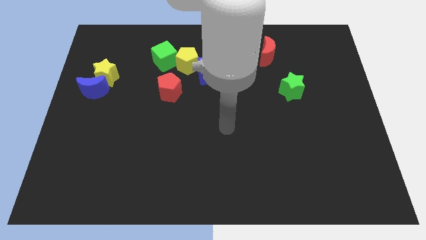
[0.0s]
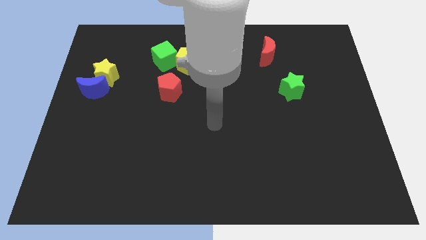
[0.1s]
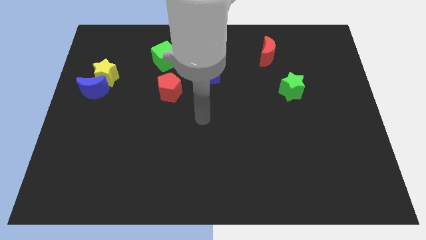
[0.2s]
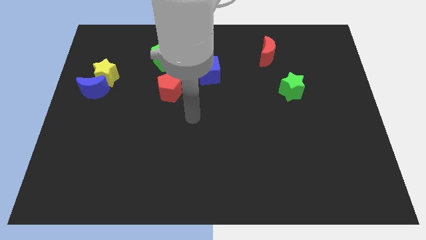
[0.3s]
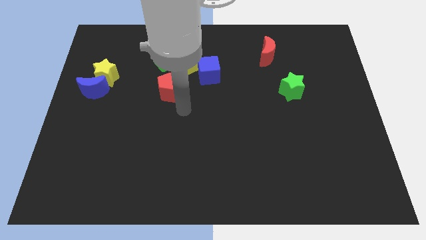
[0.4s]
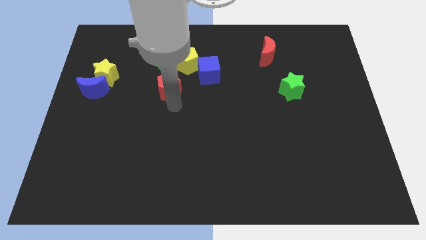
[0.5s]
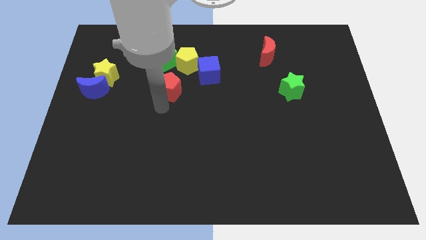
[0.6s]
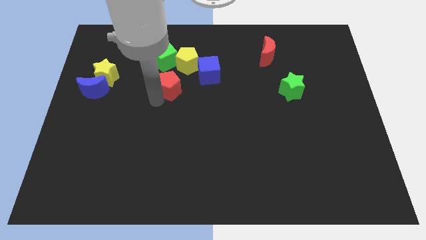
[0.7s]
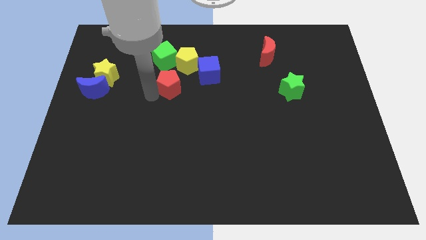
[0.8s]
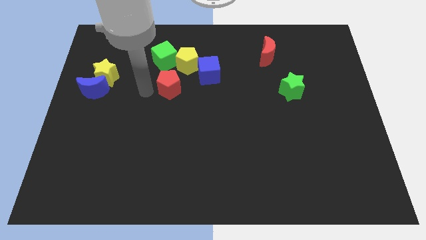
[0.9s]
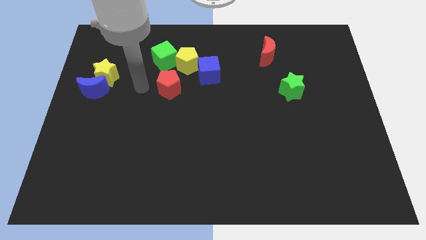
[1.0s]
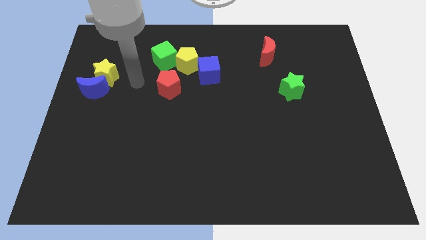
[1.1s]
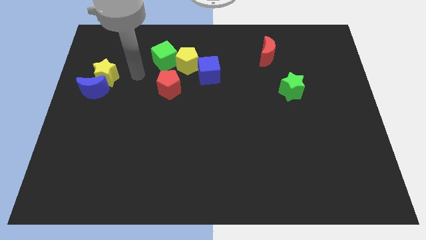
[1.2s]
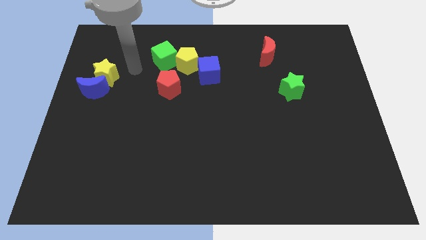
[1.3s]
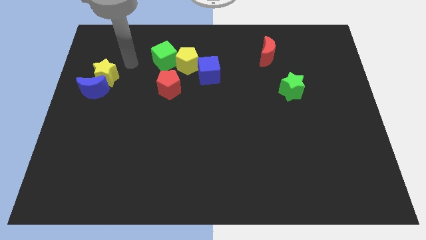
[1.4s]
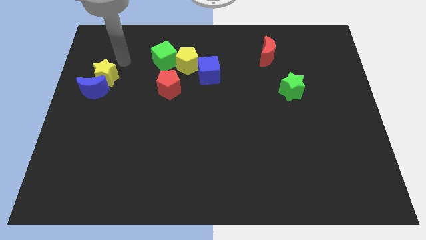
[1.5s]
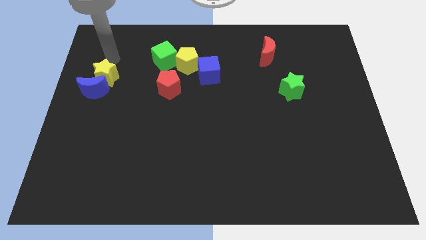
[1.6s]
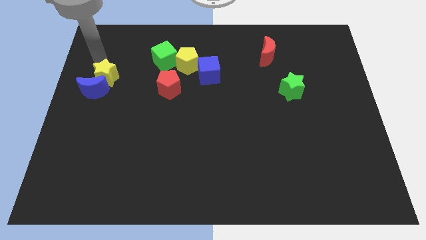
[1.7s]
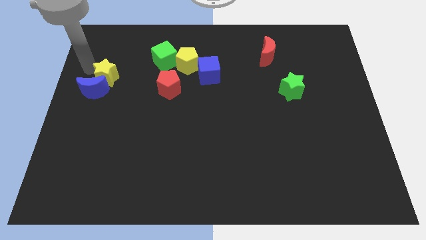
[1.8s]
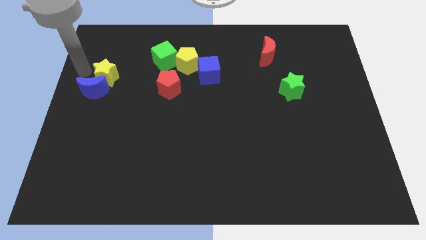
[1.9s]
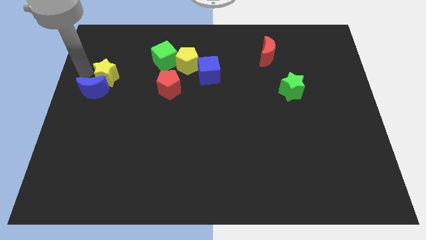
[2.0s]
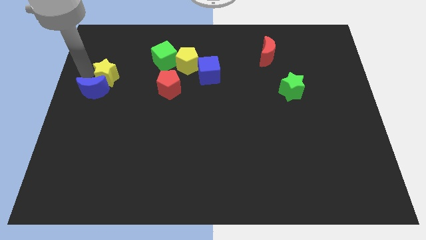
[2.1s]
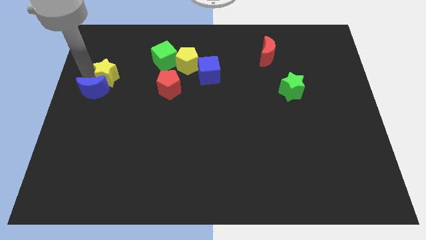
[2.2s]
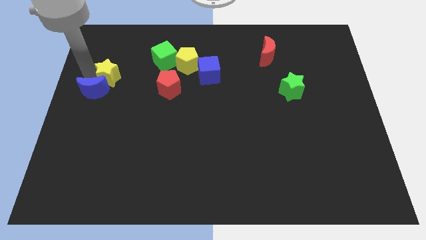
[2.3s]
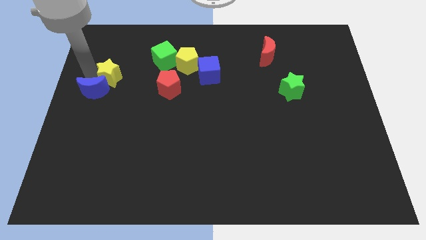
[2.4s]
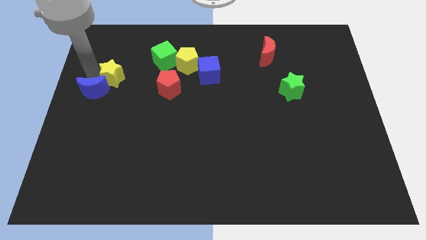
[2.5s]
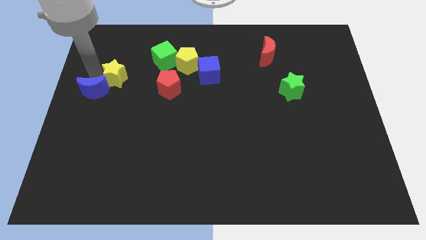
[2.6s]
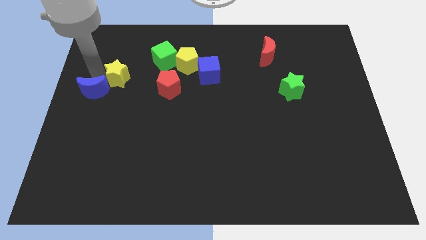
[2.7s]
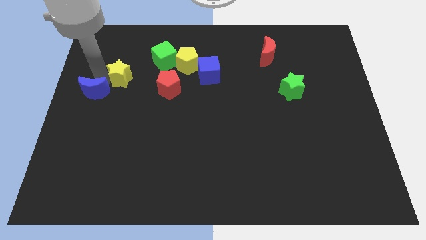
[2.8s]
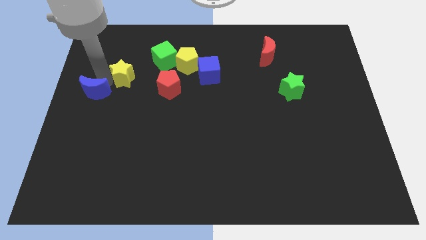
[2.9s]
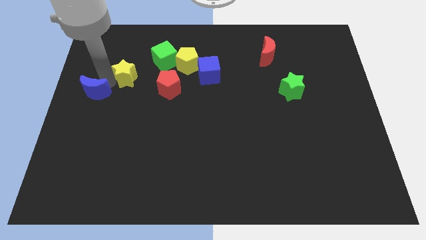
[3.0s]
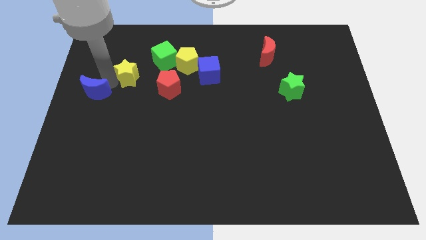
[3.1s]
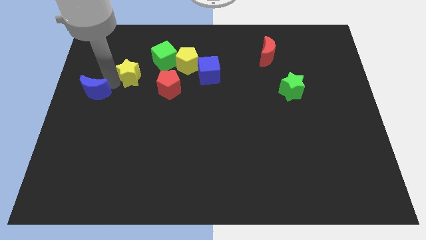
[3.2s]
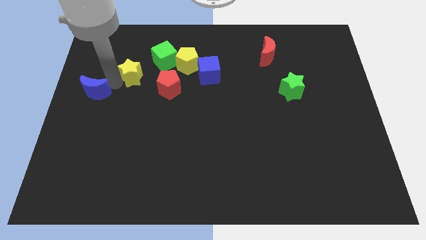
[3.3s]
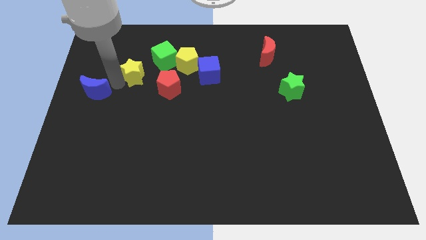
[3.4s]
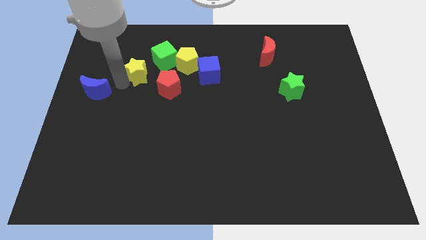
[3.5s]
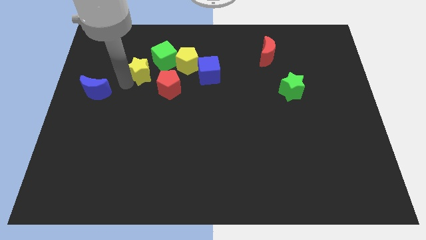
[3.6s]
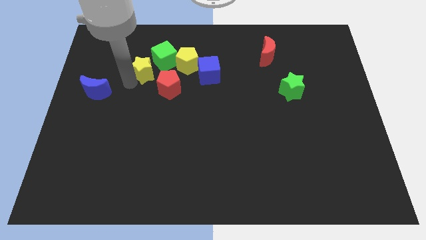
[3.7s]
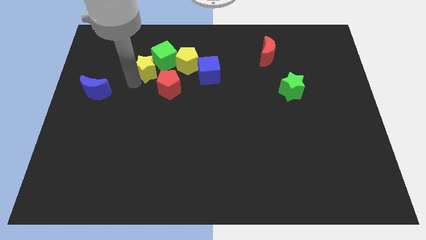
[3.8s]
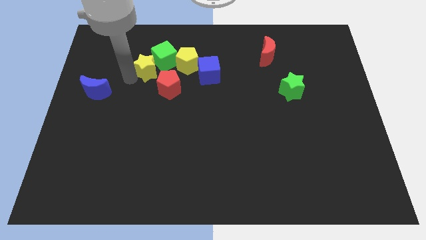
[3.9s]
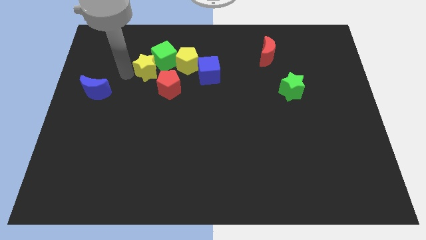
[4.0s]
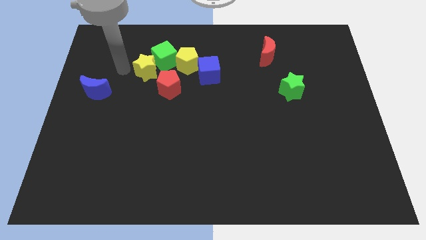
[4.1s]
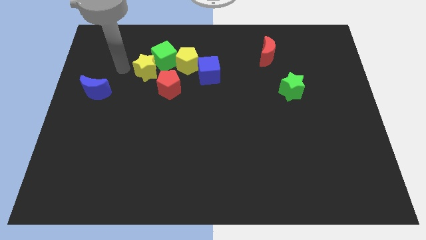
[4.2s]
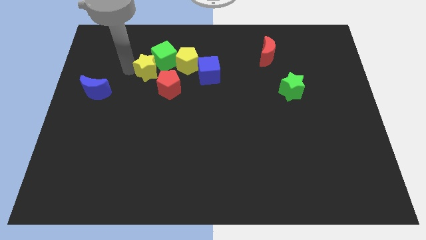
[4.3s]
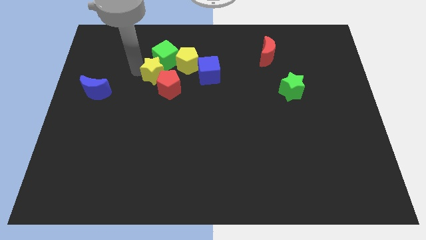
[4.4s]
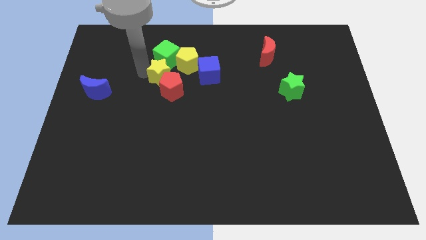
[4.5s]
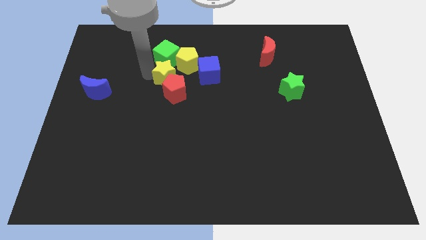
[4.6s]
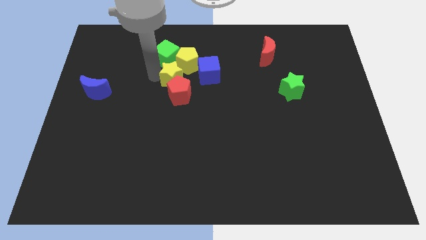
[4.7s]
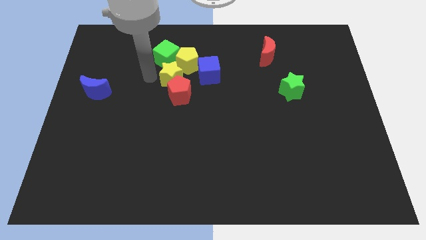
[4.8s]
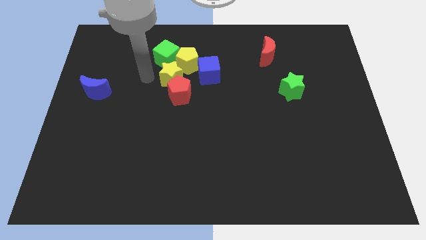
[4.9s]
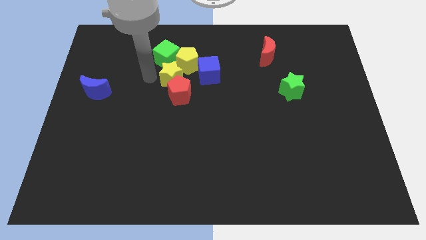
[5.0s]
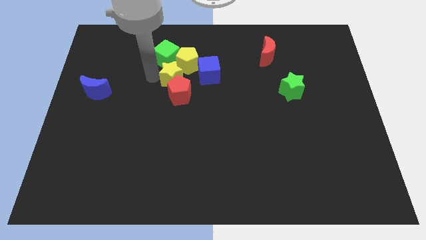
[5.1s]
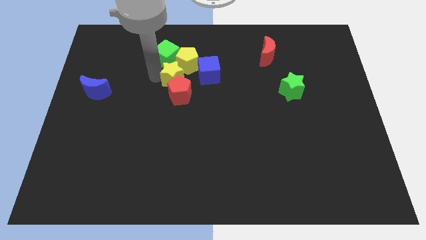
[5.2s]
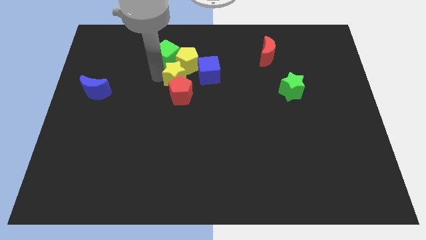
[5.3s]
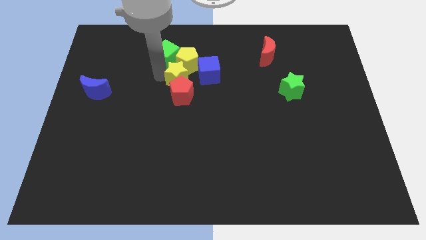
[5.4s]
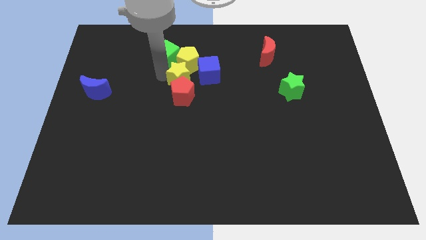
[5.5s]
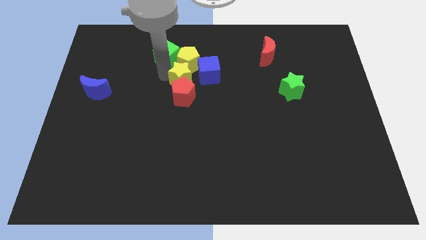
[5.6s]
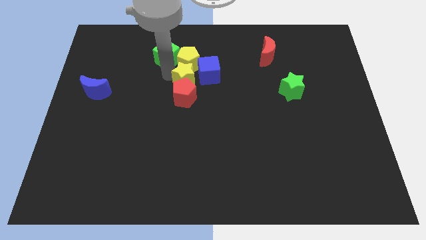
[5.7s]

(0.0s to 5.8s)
push the yellow star right

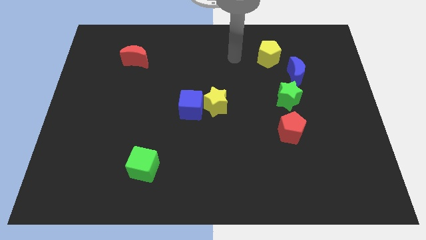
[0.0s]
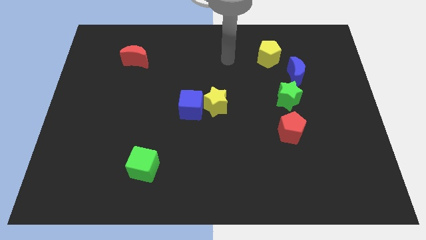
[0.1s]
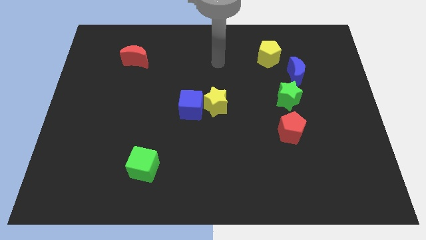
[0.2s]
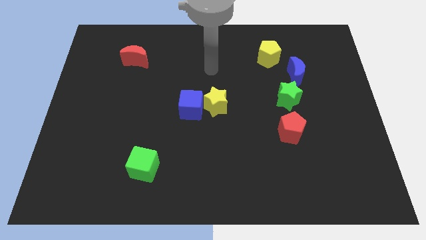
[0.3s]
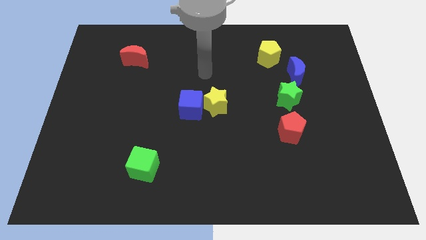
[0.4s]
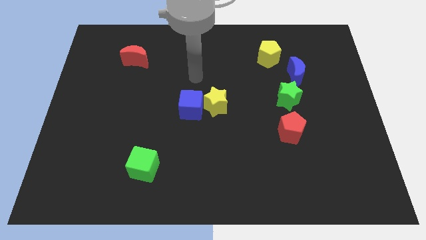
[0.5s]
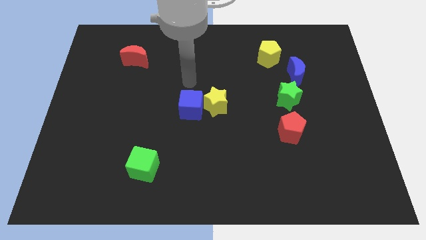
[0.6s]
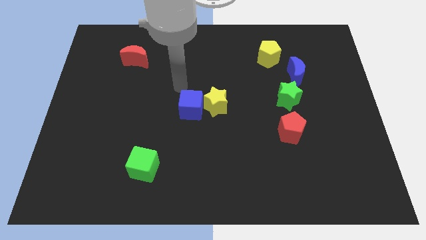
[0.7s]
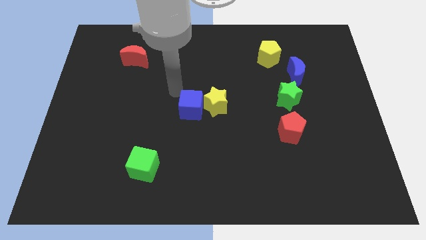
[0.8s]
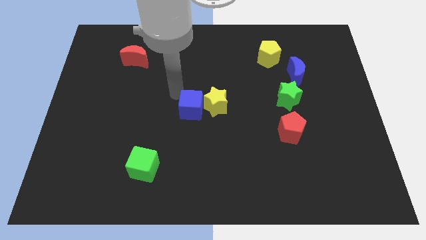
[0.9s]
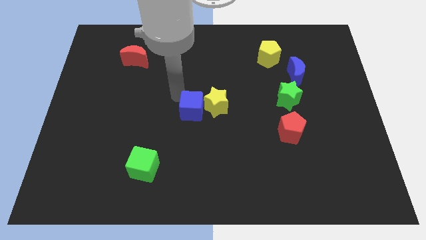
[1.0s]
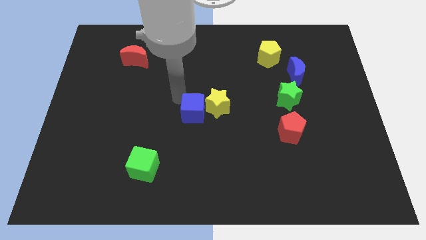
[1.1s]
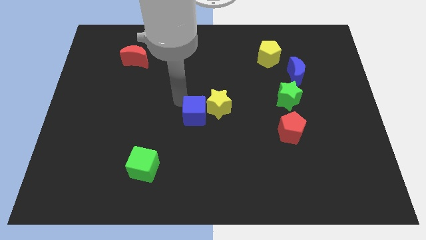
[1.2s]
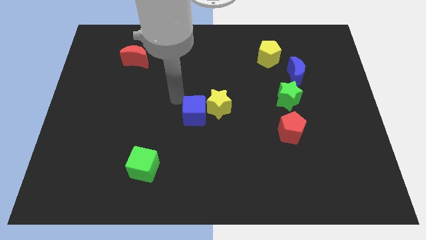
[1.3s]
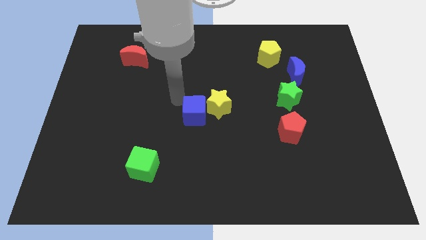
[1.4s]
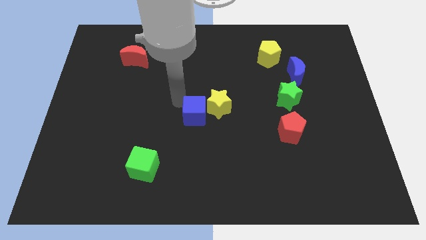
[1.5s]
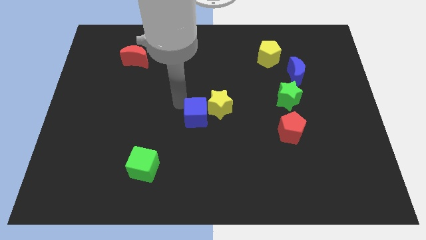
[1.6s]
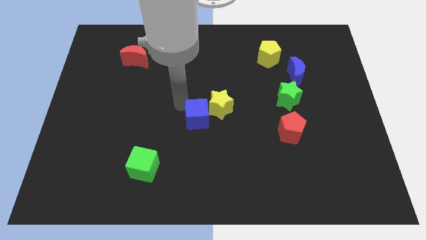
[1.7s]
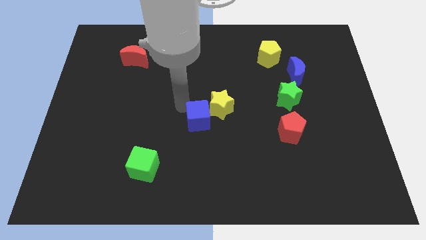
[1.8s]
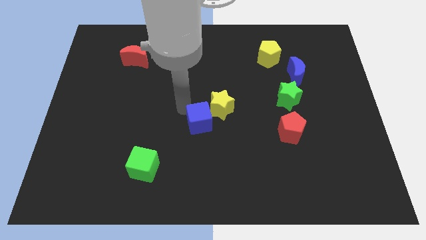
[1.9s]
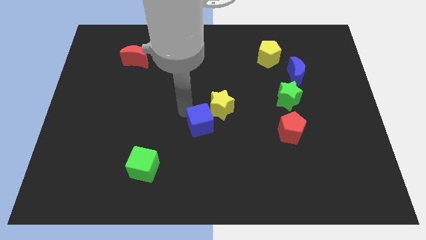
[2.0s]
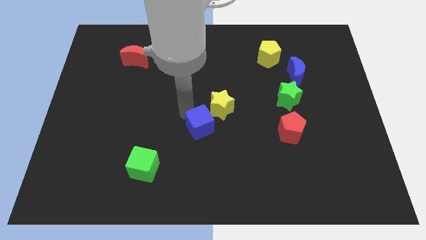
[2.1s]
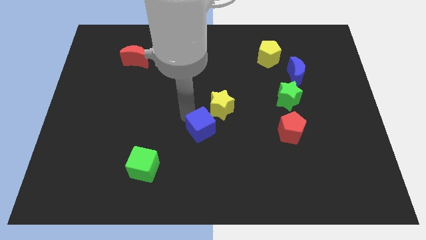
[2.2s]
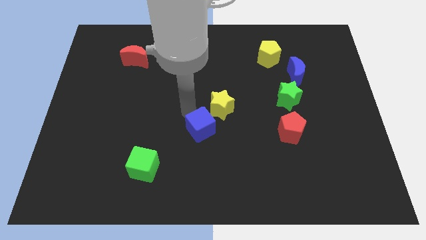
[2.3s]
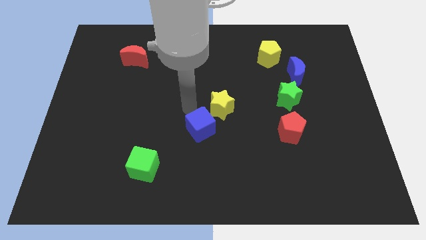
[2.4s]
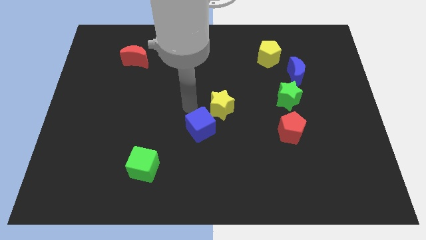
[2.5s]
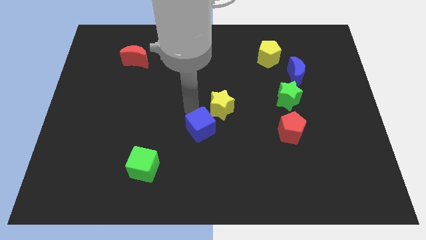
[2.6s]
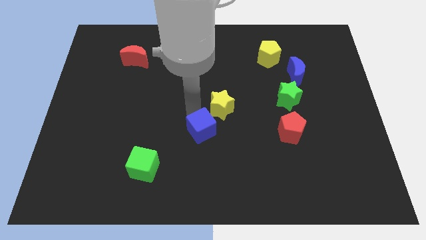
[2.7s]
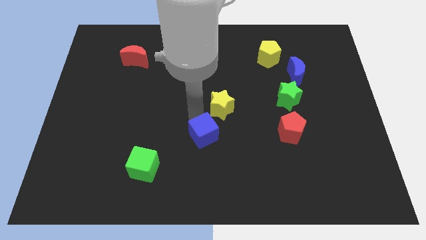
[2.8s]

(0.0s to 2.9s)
slide the blue cube down somewhat
